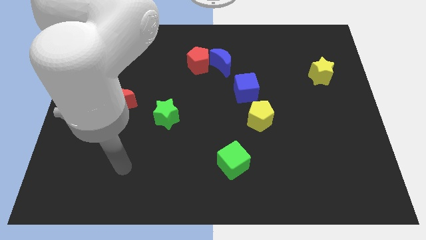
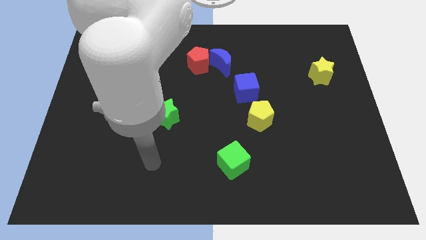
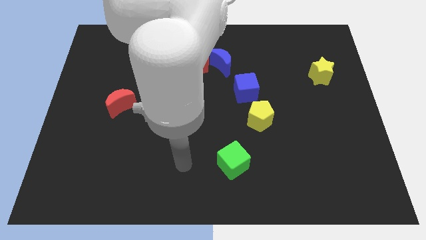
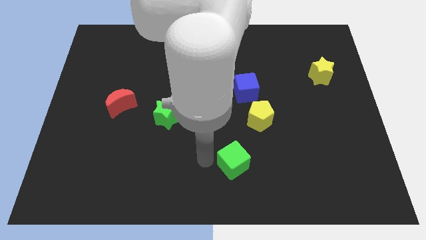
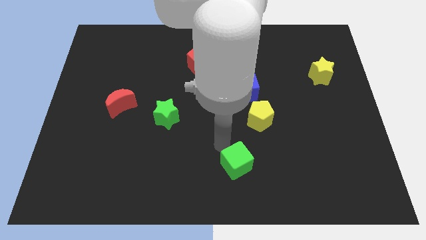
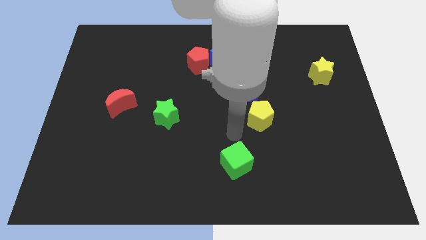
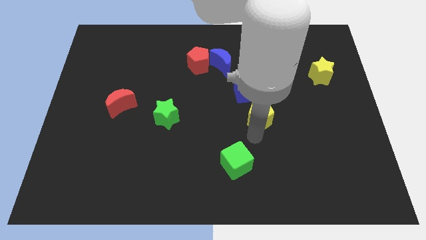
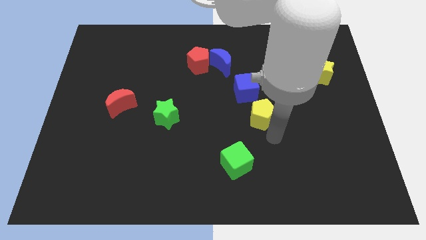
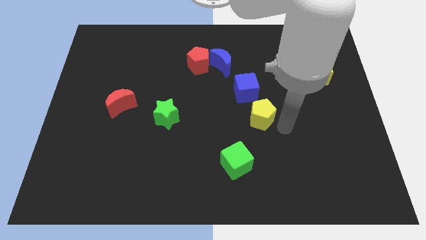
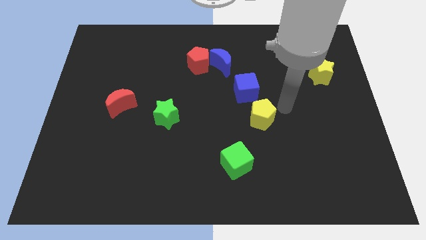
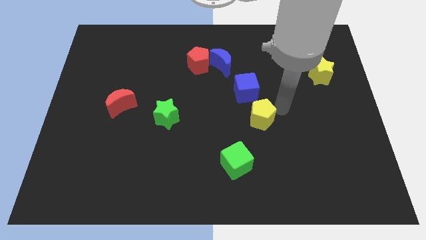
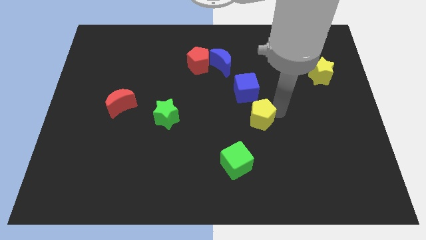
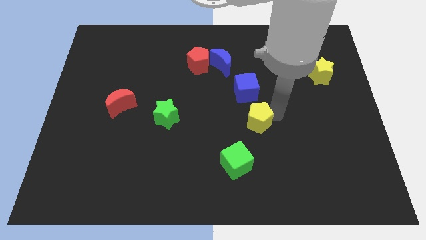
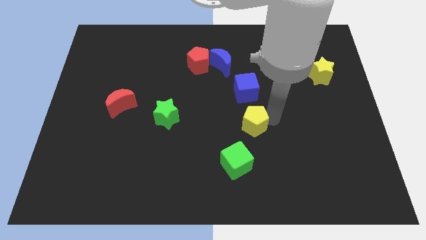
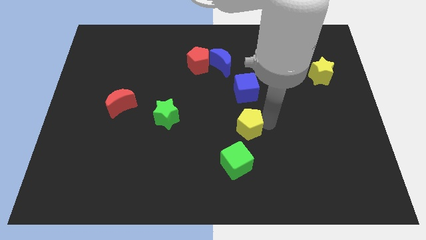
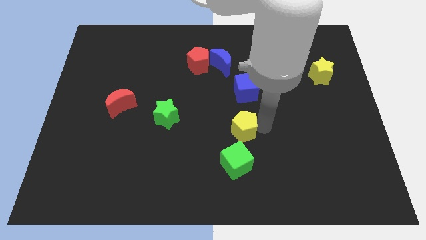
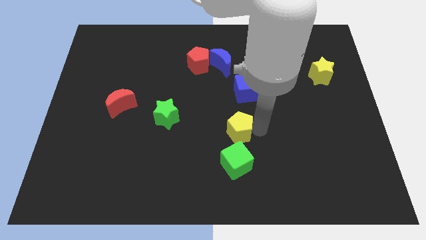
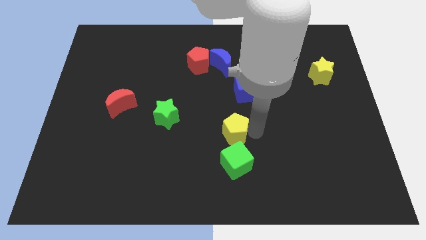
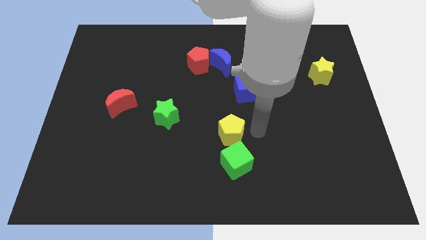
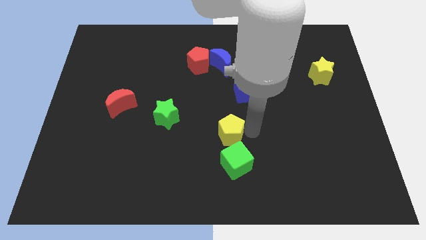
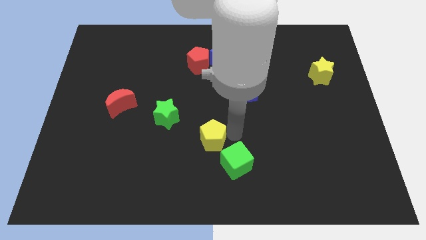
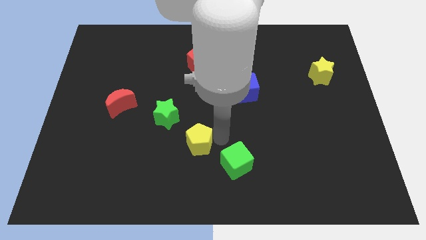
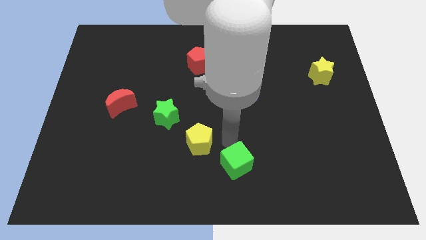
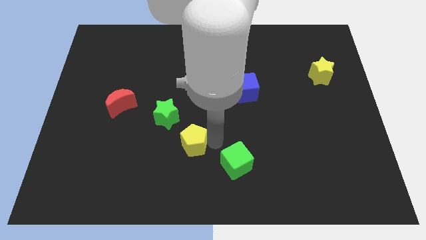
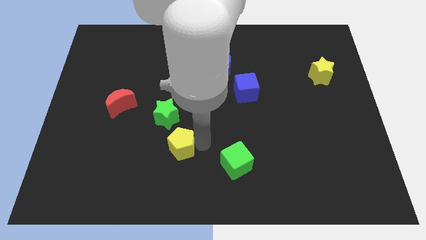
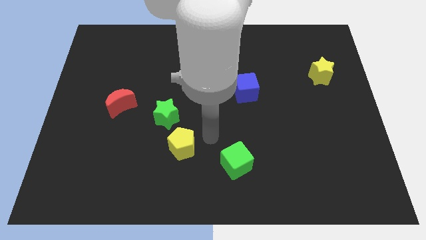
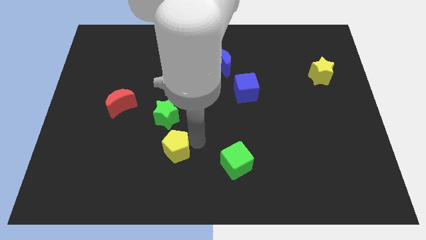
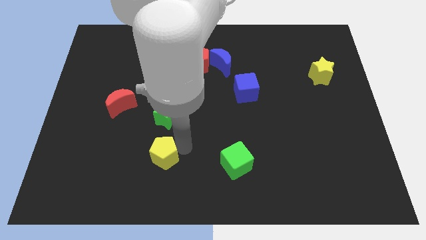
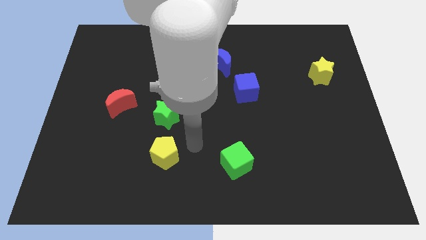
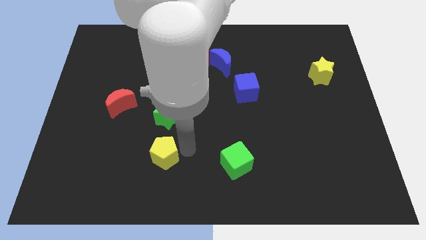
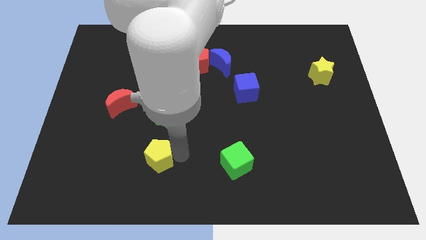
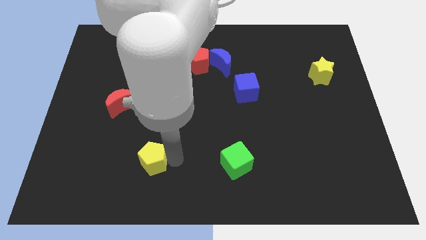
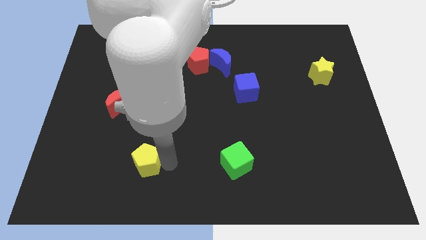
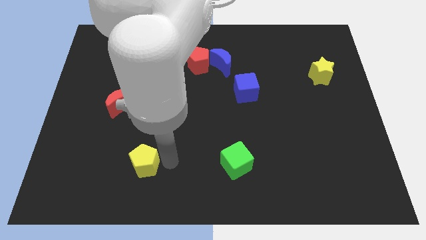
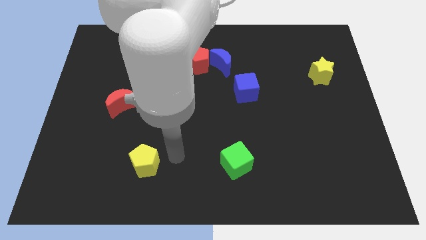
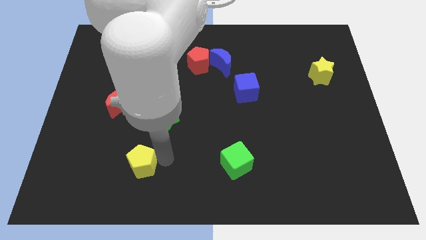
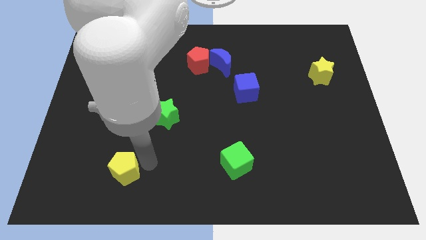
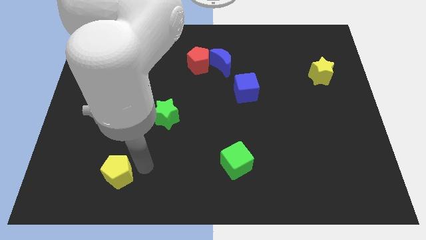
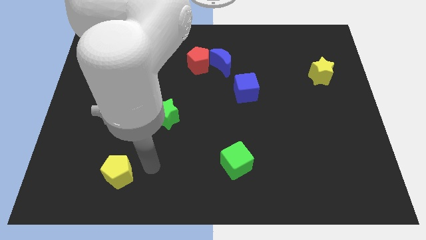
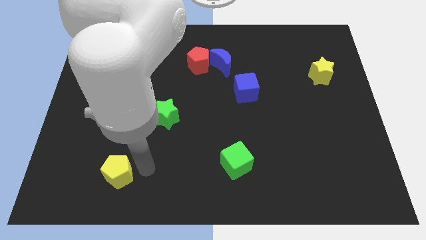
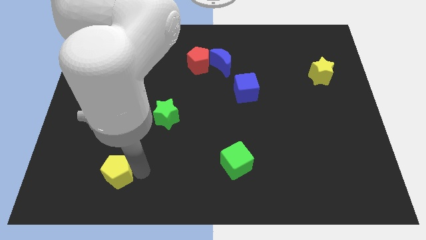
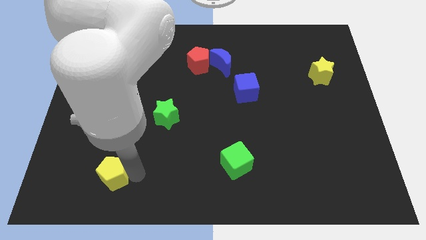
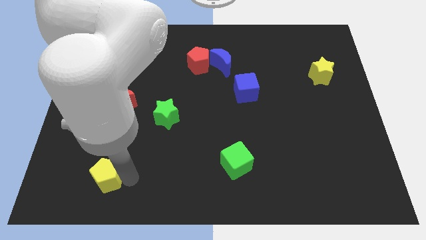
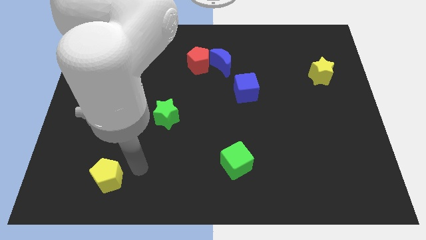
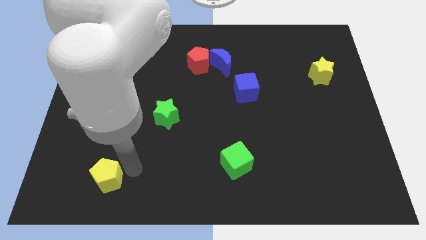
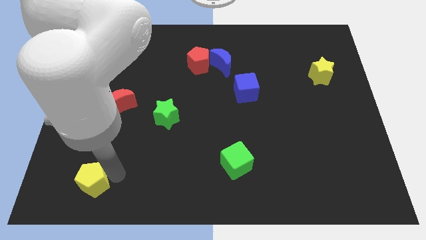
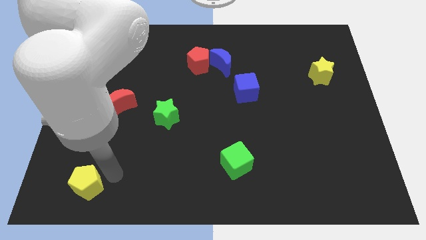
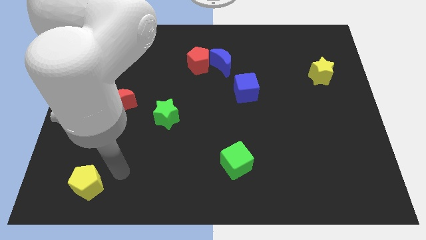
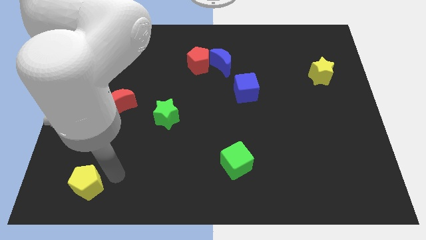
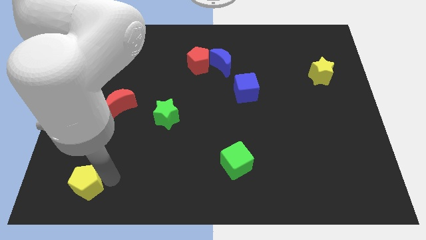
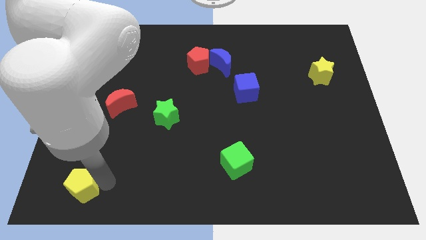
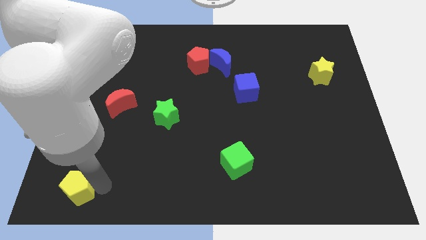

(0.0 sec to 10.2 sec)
push the yellow pentagon to the bottom left

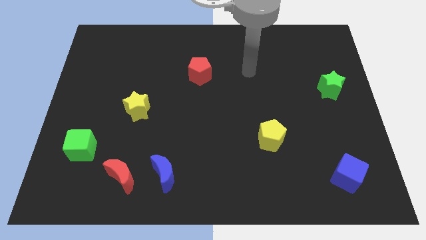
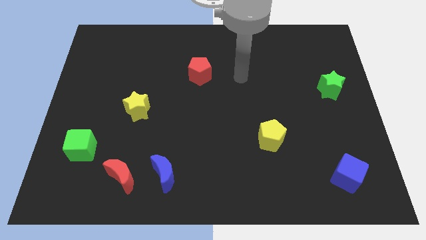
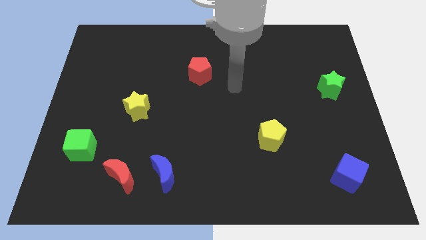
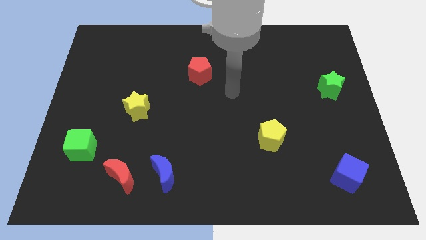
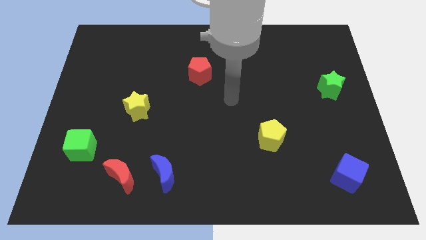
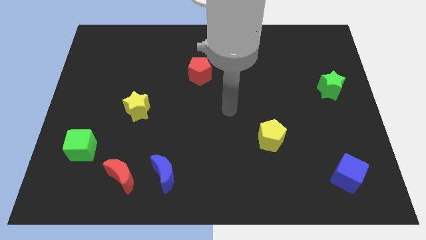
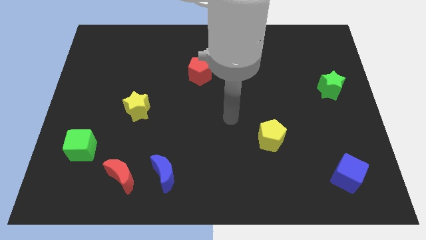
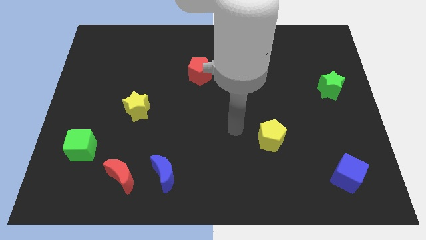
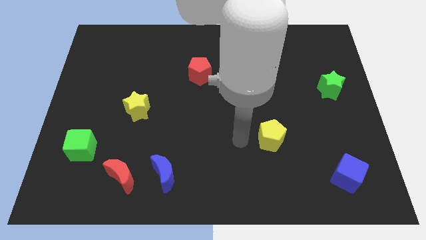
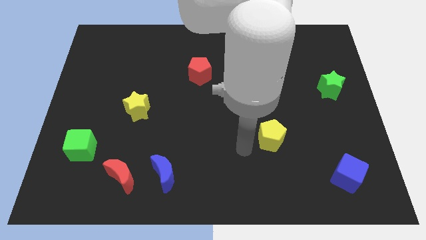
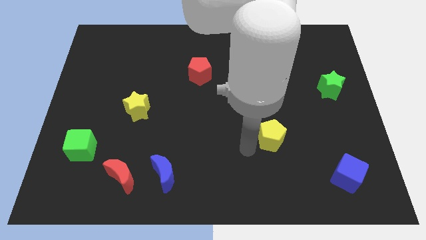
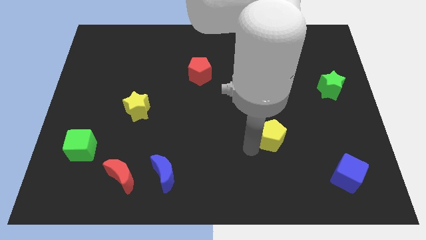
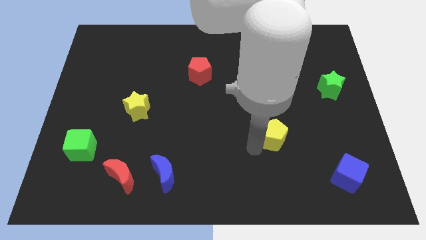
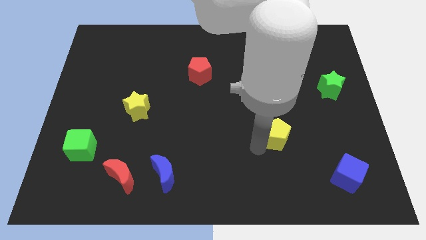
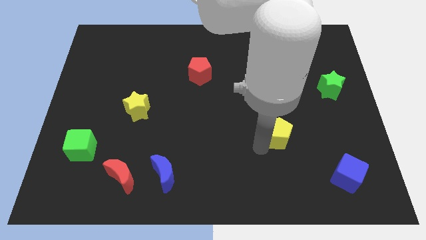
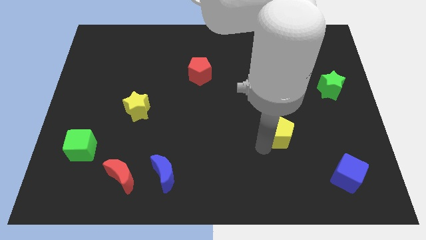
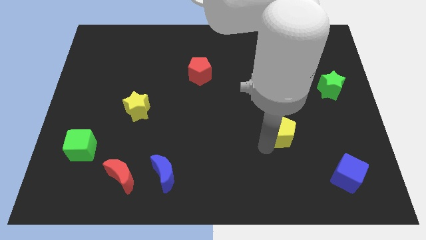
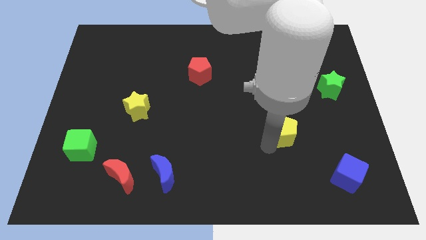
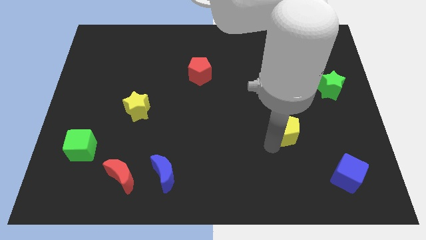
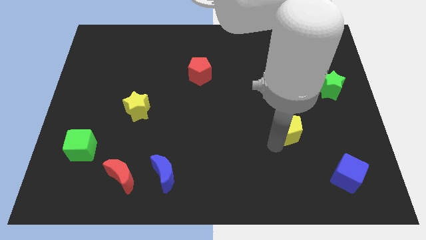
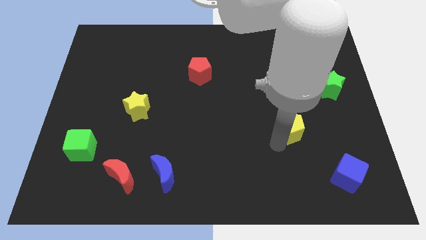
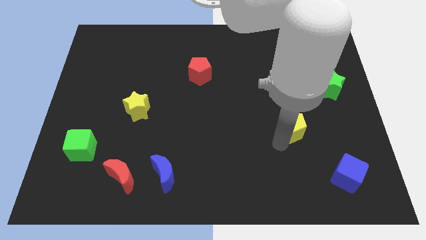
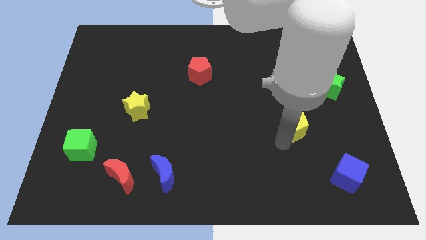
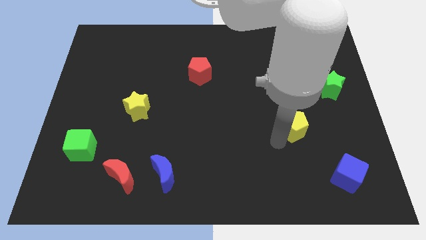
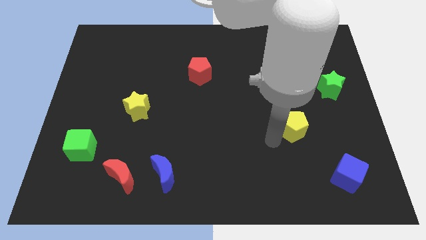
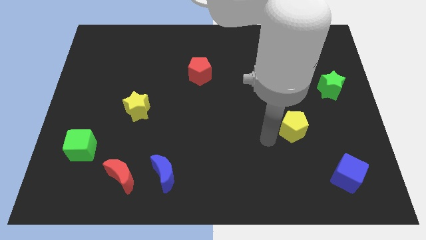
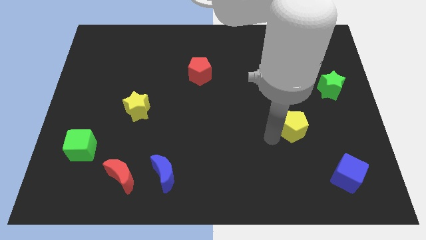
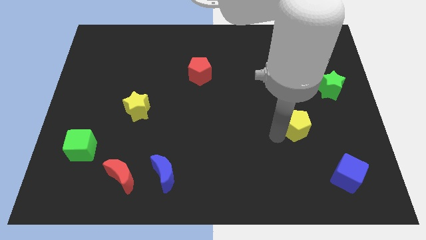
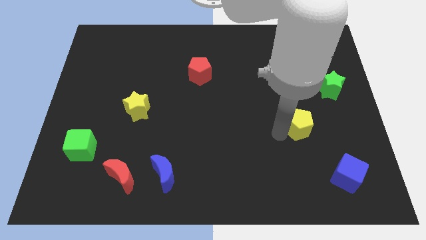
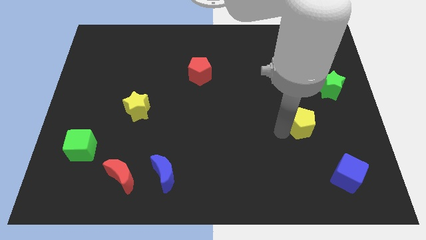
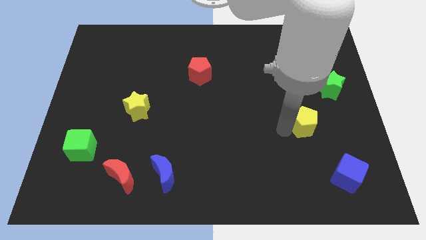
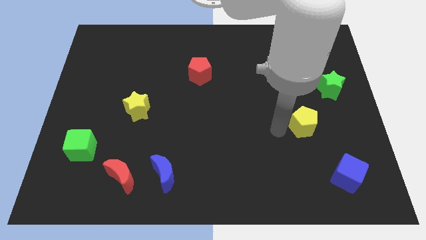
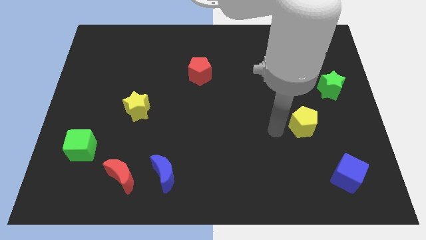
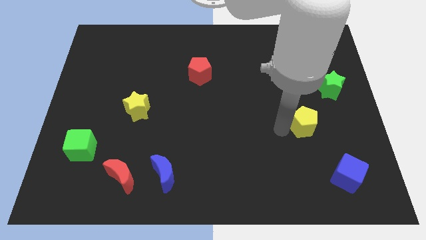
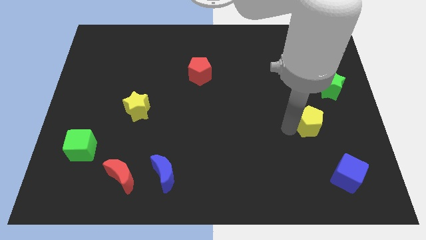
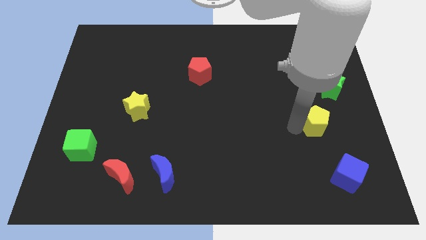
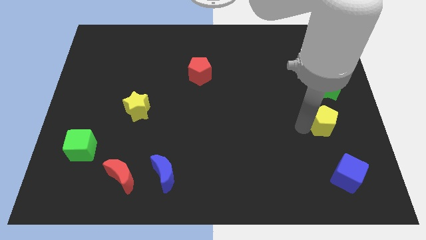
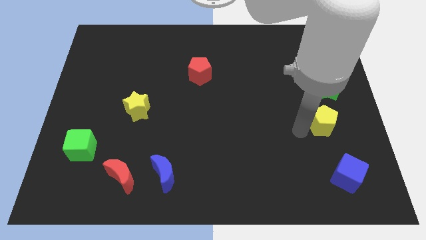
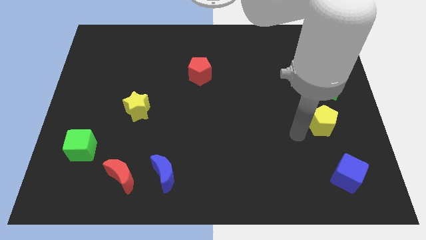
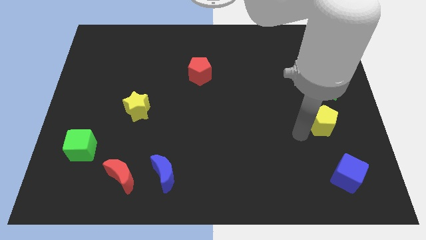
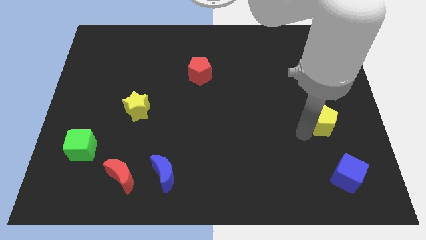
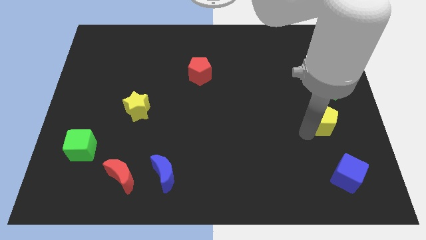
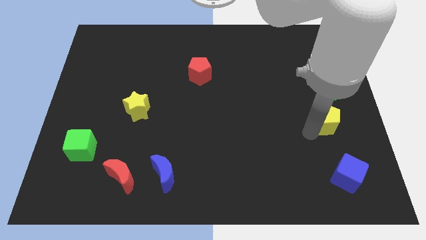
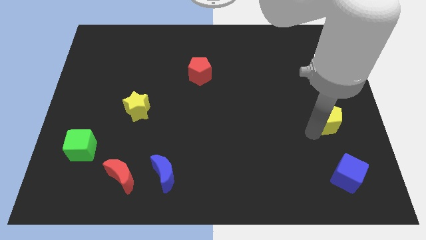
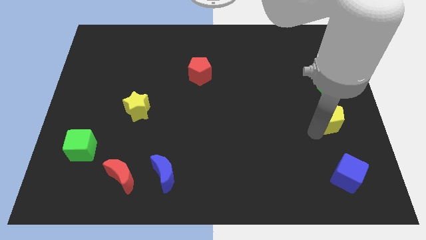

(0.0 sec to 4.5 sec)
slide the yellow pentagon to the right side
